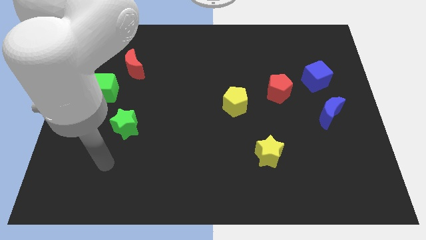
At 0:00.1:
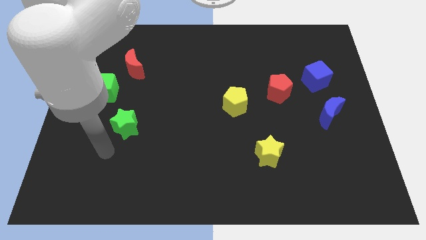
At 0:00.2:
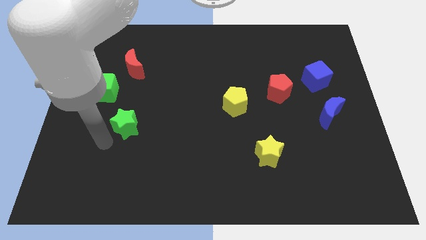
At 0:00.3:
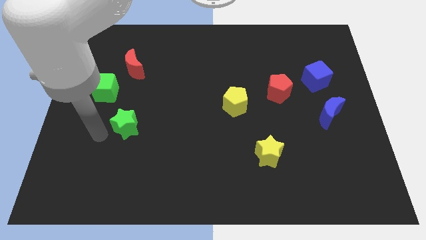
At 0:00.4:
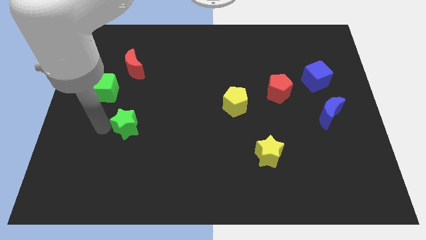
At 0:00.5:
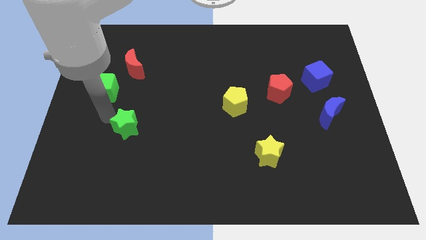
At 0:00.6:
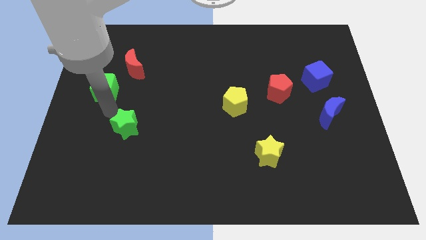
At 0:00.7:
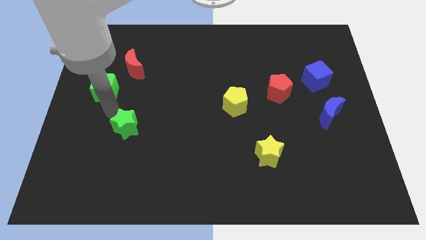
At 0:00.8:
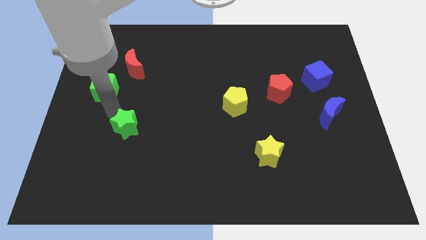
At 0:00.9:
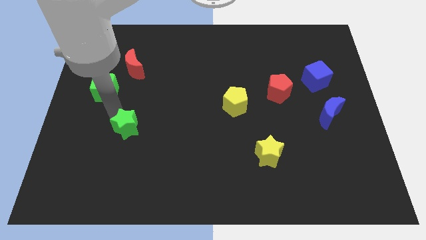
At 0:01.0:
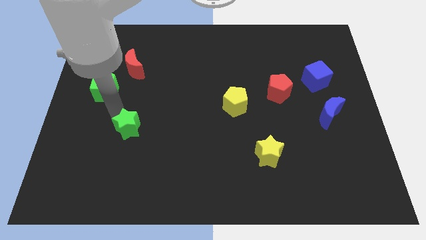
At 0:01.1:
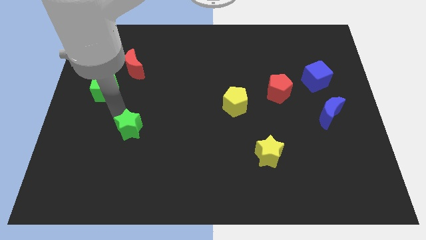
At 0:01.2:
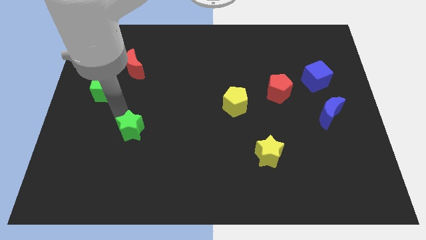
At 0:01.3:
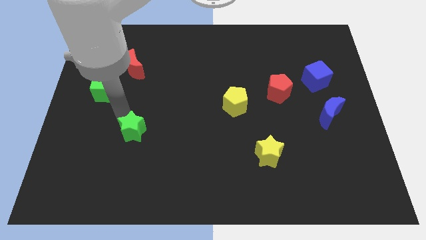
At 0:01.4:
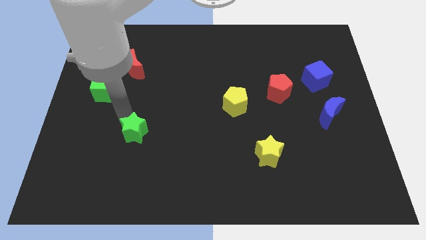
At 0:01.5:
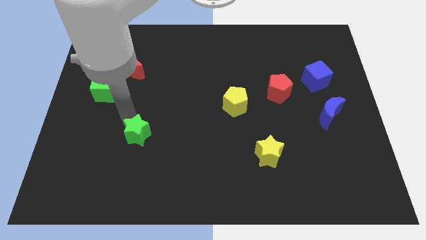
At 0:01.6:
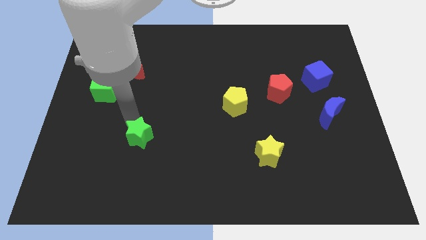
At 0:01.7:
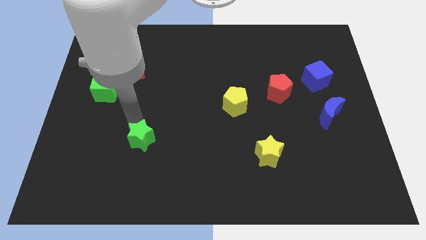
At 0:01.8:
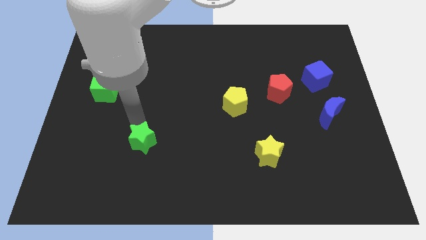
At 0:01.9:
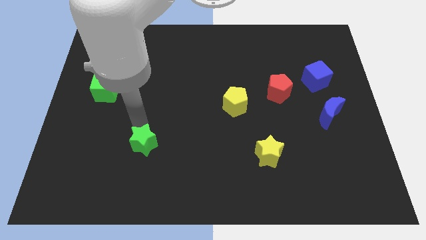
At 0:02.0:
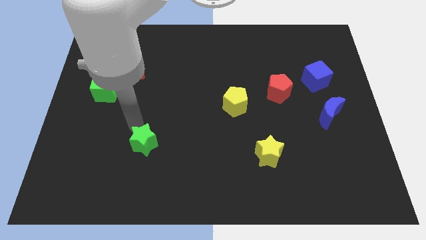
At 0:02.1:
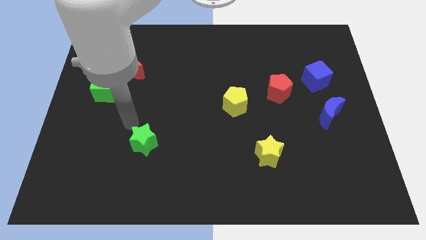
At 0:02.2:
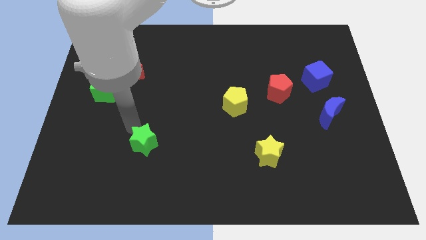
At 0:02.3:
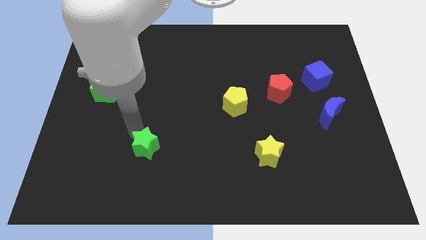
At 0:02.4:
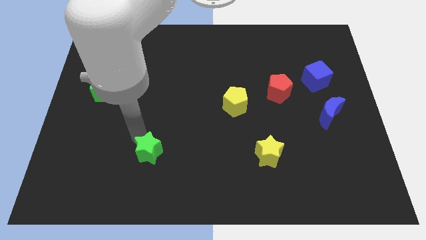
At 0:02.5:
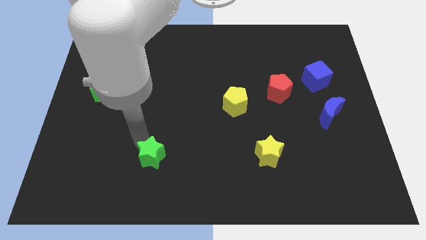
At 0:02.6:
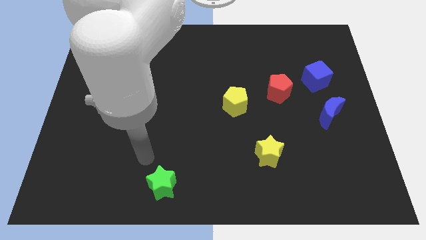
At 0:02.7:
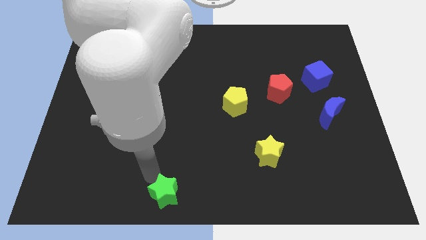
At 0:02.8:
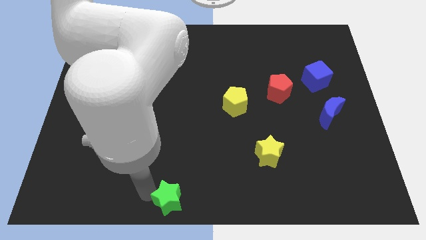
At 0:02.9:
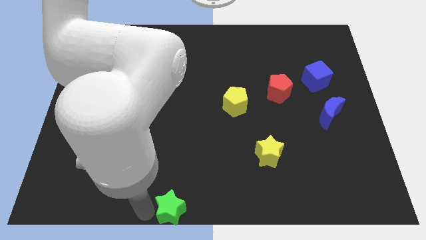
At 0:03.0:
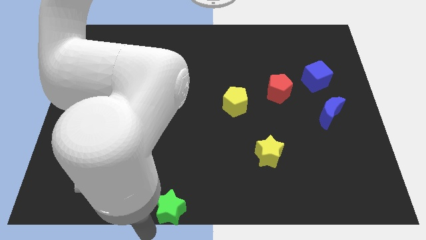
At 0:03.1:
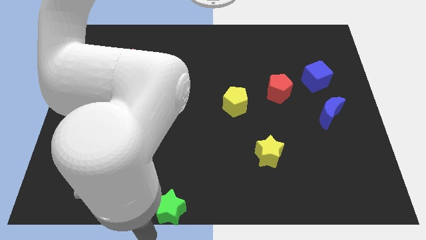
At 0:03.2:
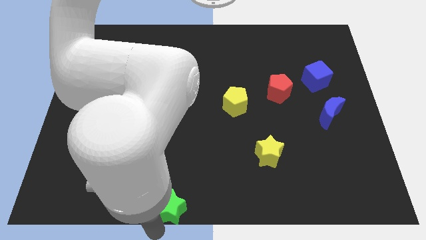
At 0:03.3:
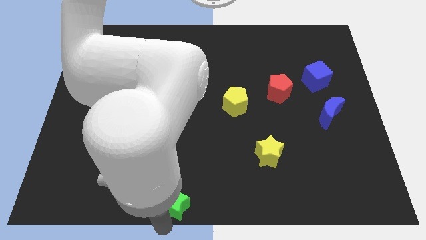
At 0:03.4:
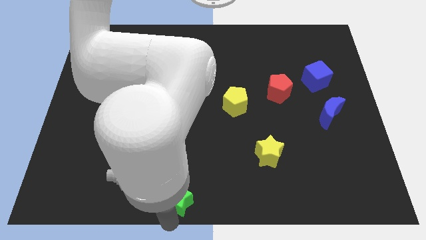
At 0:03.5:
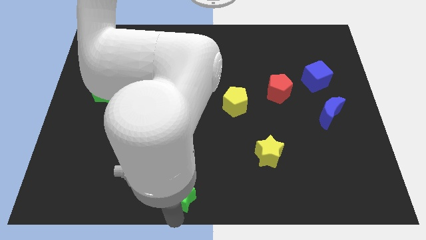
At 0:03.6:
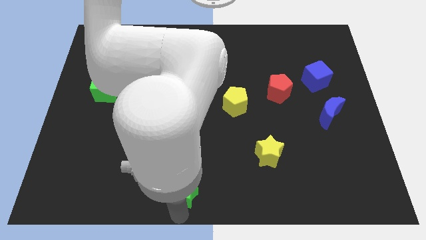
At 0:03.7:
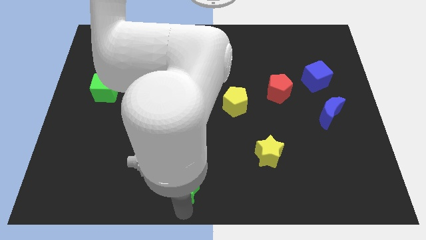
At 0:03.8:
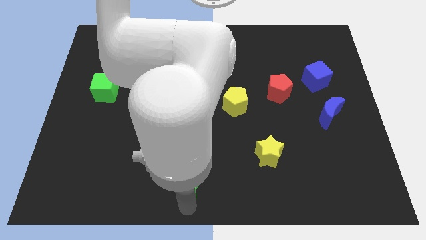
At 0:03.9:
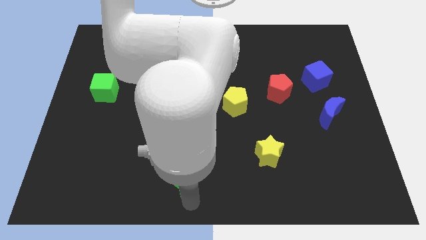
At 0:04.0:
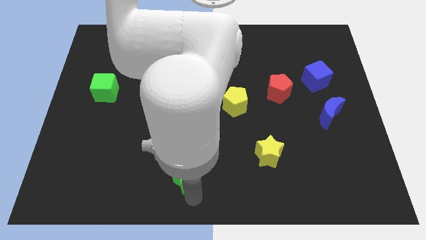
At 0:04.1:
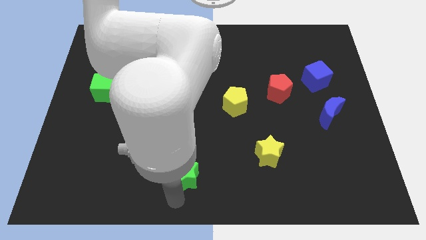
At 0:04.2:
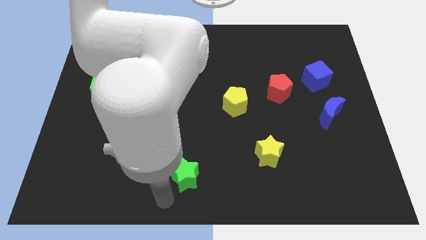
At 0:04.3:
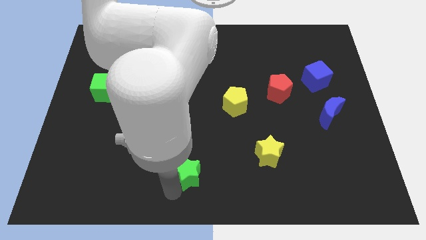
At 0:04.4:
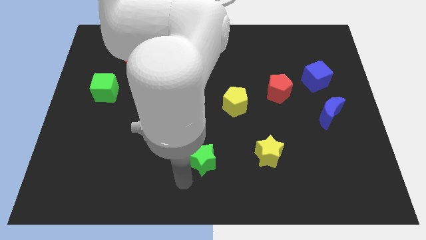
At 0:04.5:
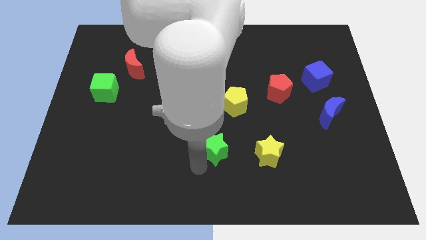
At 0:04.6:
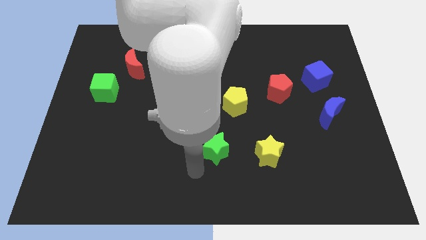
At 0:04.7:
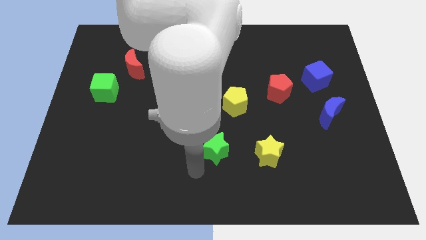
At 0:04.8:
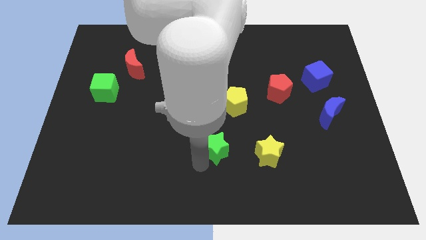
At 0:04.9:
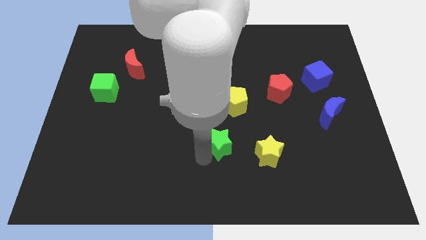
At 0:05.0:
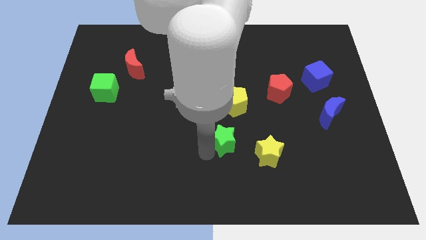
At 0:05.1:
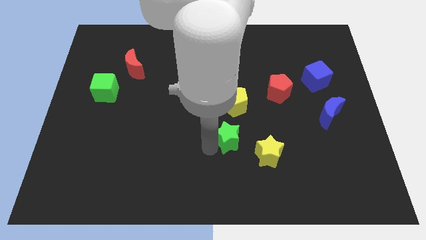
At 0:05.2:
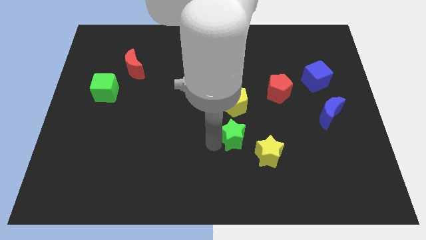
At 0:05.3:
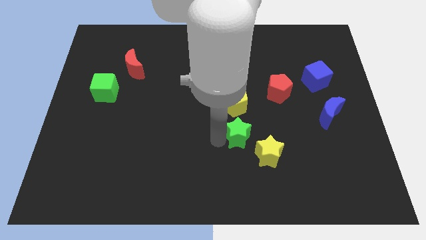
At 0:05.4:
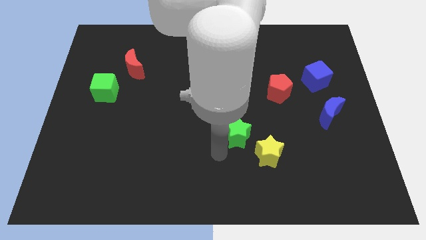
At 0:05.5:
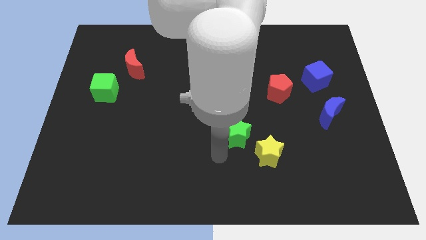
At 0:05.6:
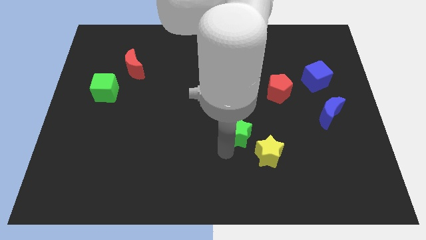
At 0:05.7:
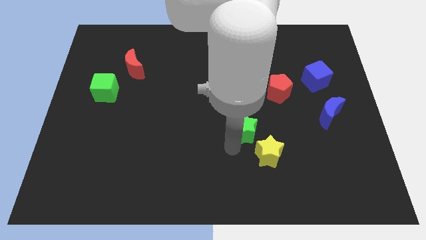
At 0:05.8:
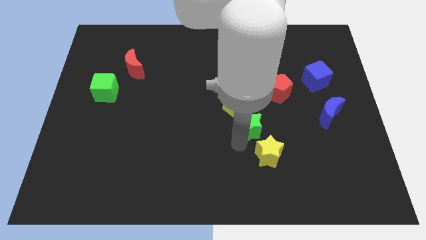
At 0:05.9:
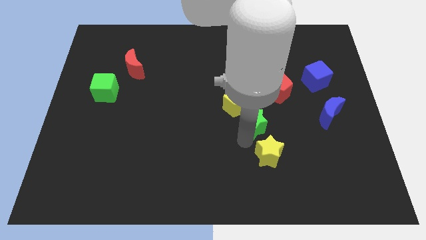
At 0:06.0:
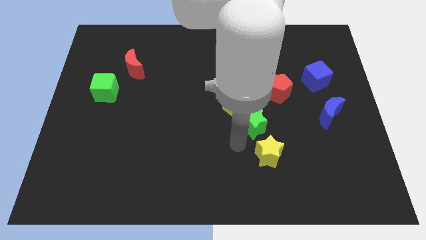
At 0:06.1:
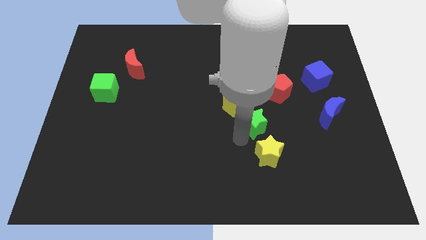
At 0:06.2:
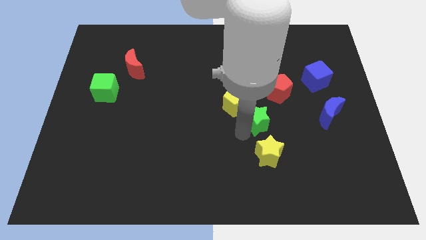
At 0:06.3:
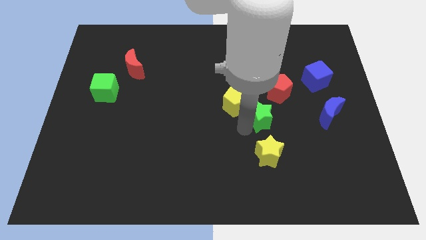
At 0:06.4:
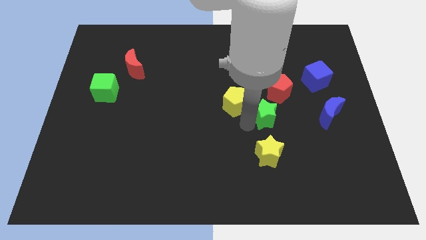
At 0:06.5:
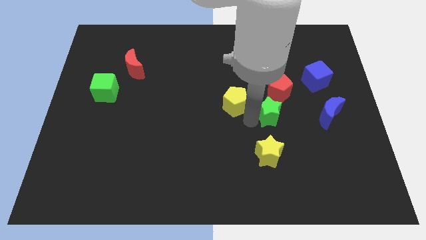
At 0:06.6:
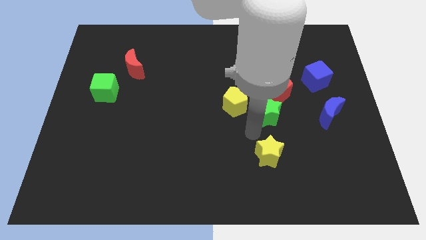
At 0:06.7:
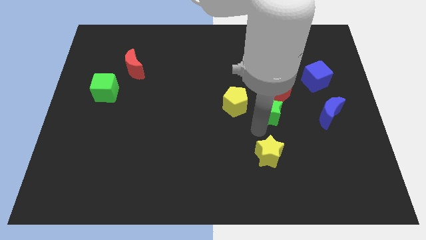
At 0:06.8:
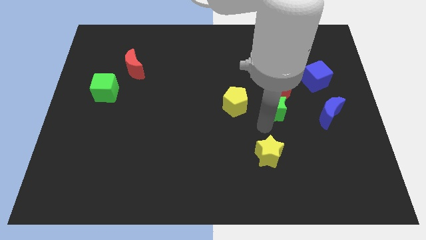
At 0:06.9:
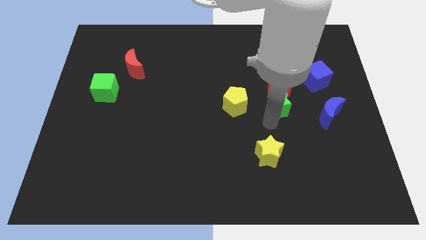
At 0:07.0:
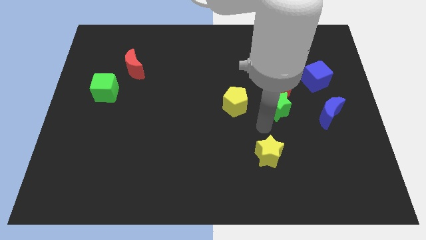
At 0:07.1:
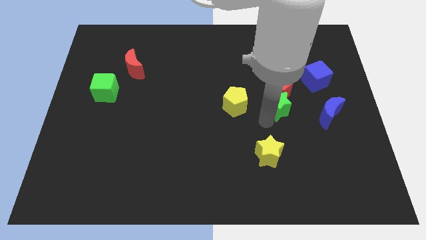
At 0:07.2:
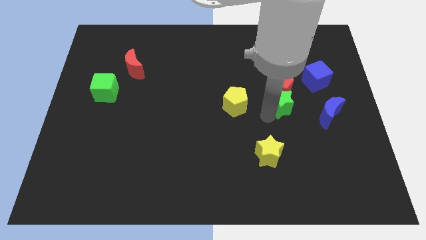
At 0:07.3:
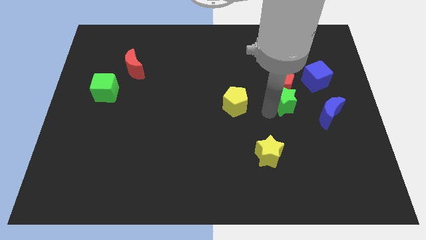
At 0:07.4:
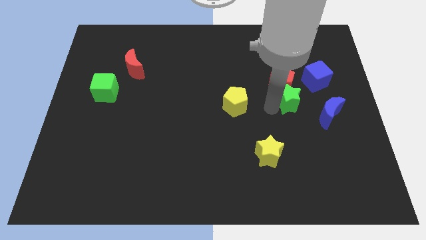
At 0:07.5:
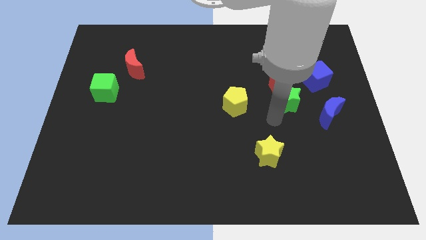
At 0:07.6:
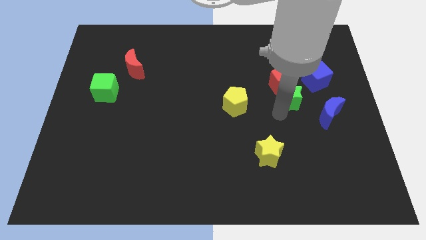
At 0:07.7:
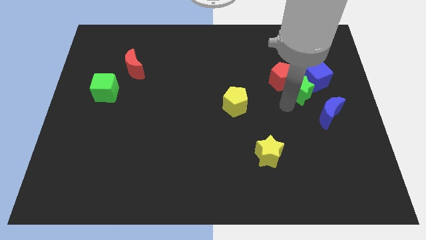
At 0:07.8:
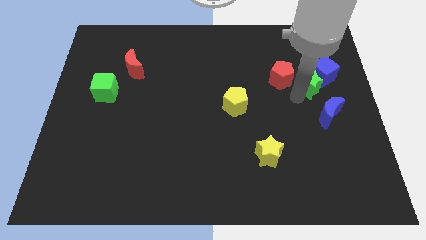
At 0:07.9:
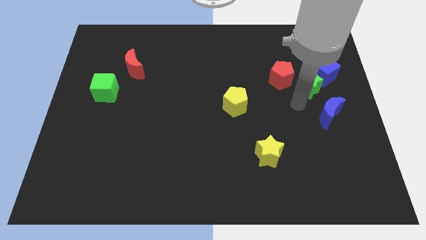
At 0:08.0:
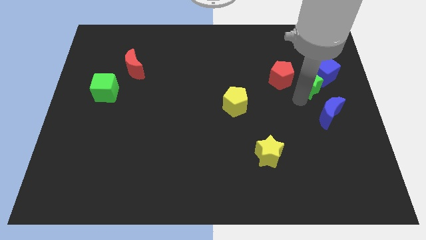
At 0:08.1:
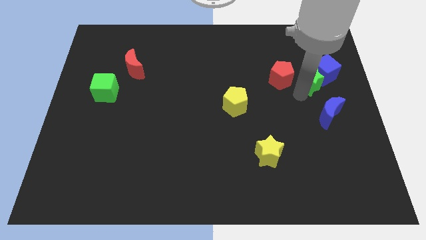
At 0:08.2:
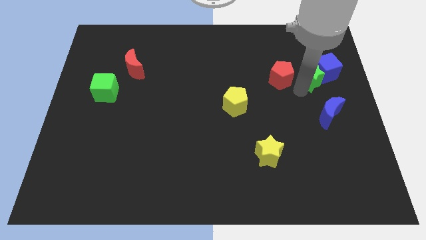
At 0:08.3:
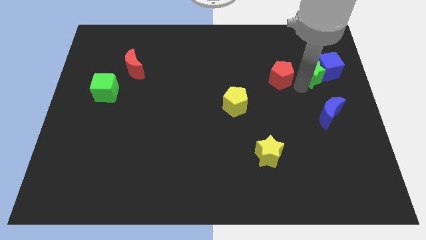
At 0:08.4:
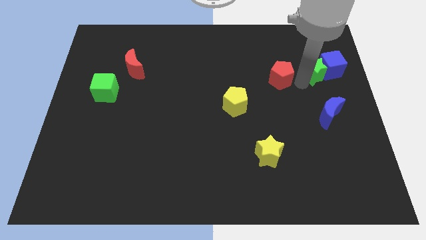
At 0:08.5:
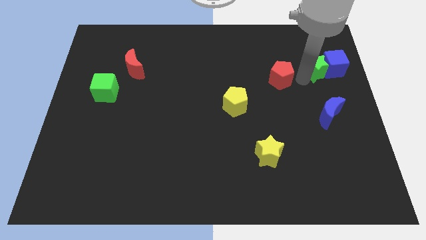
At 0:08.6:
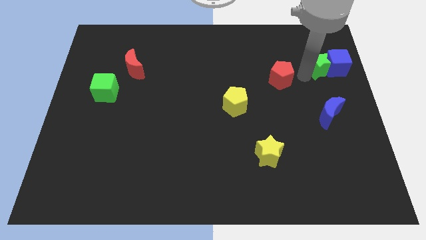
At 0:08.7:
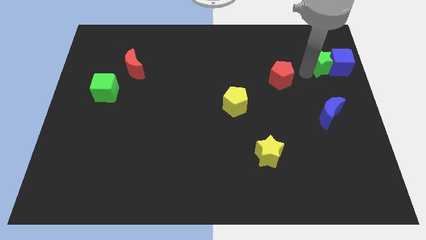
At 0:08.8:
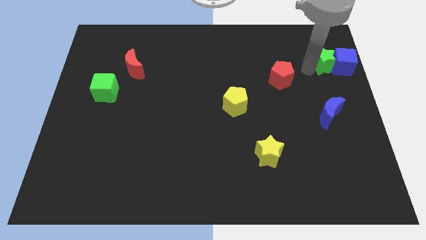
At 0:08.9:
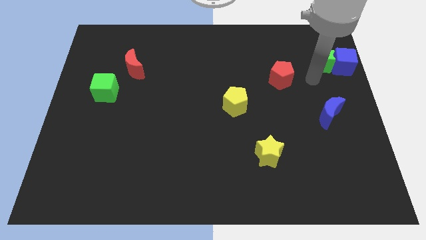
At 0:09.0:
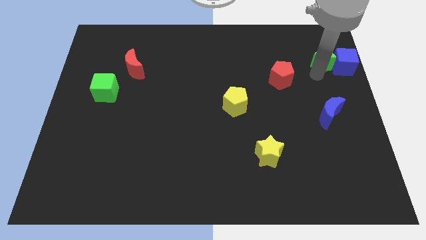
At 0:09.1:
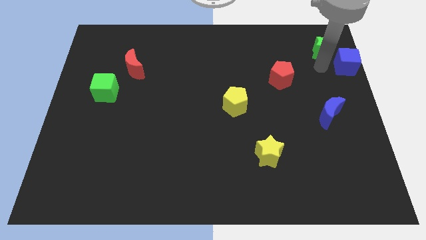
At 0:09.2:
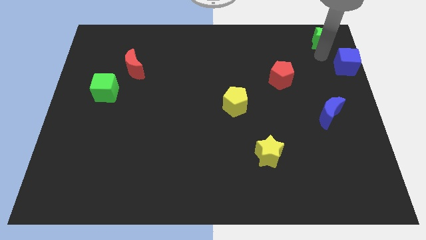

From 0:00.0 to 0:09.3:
slide the green star to the top right of the board
